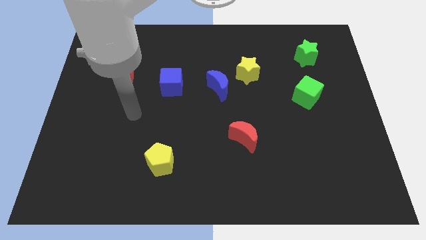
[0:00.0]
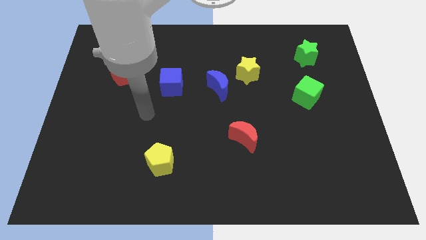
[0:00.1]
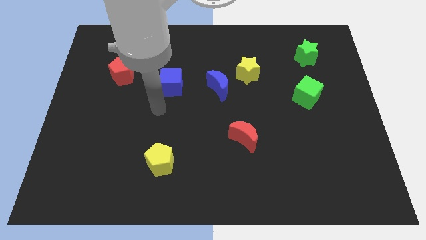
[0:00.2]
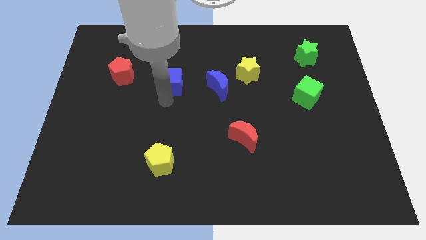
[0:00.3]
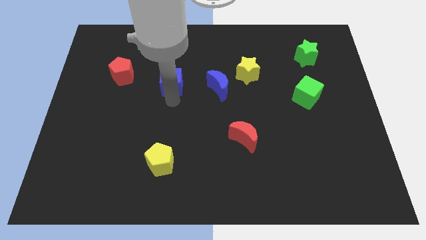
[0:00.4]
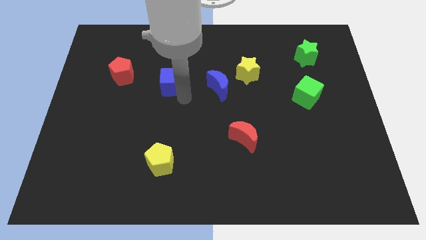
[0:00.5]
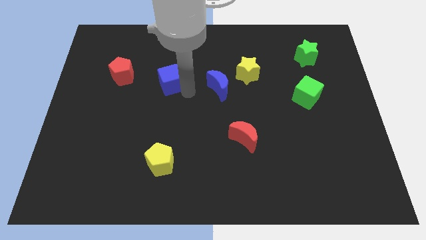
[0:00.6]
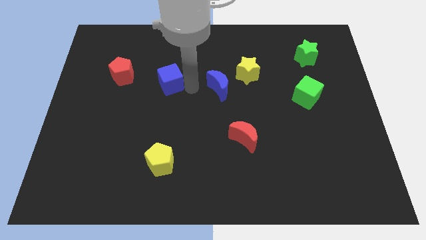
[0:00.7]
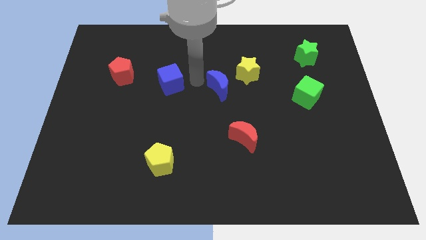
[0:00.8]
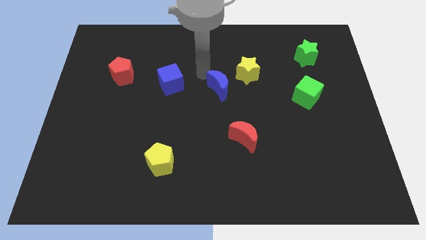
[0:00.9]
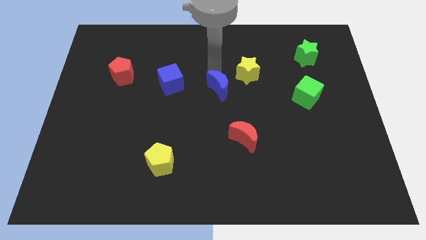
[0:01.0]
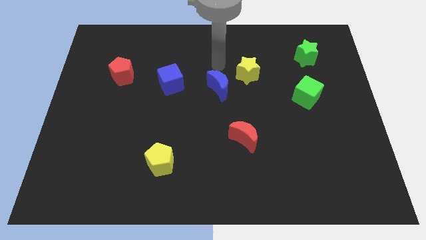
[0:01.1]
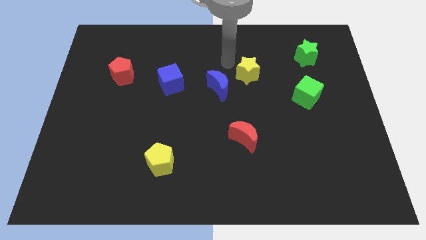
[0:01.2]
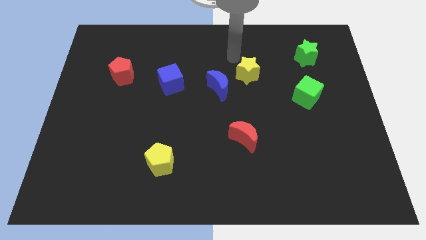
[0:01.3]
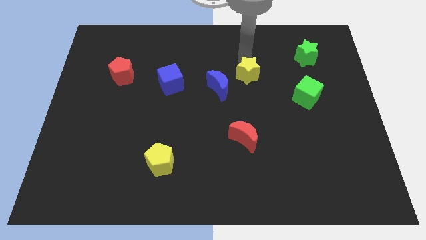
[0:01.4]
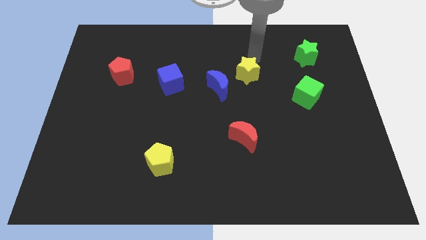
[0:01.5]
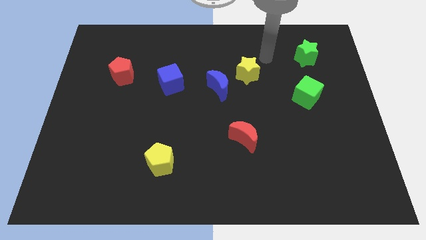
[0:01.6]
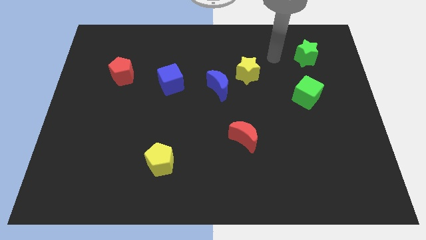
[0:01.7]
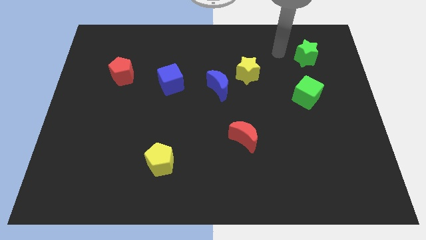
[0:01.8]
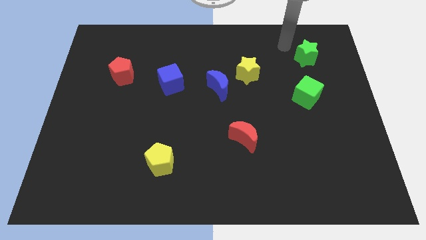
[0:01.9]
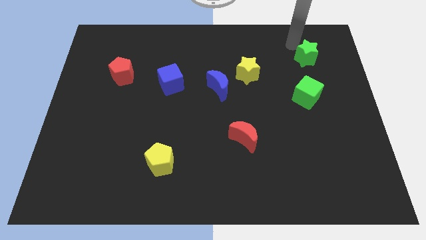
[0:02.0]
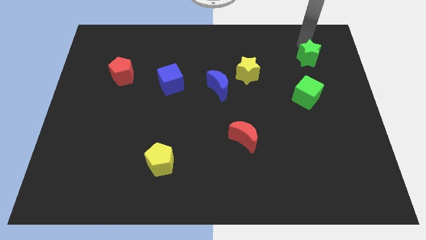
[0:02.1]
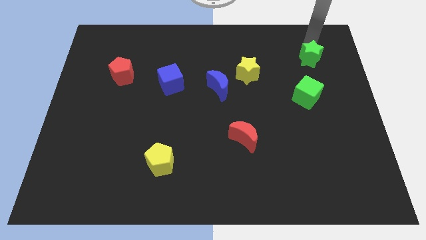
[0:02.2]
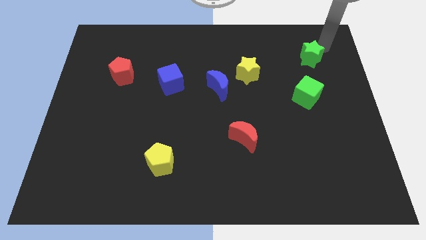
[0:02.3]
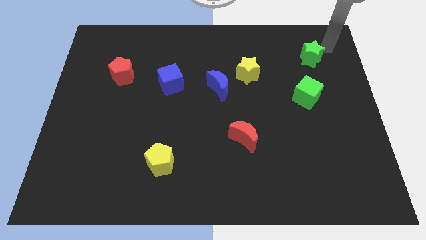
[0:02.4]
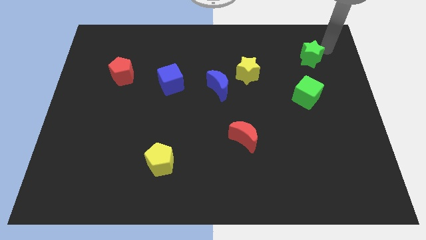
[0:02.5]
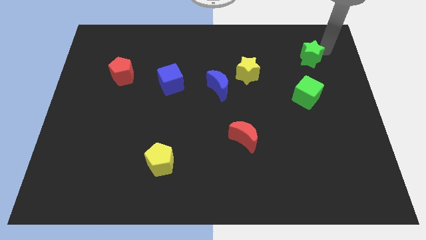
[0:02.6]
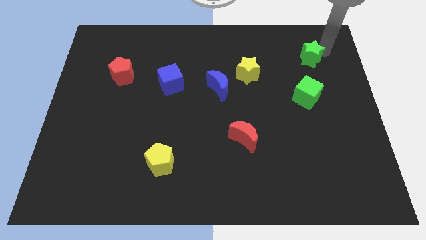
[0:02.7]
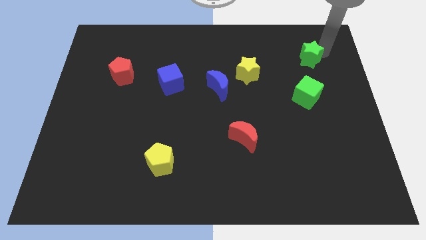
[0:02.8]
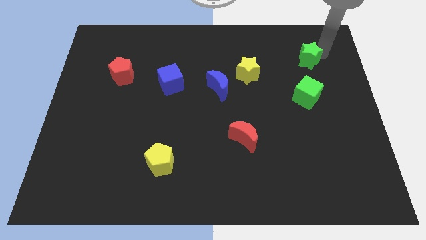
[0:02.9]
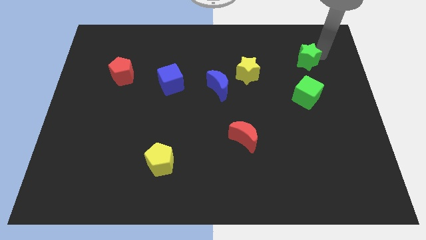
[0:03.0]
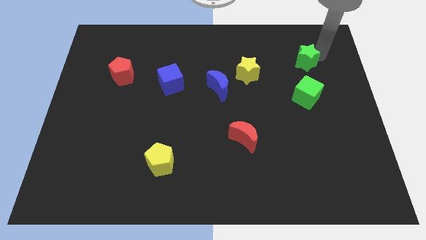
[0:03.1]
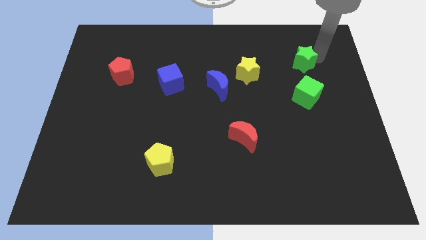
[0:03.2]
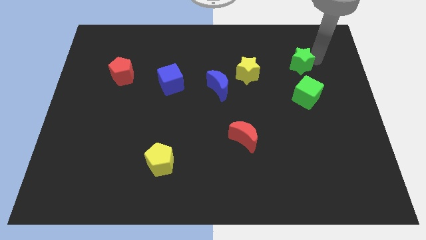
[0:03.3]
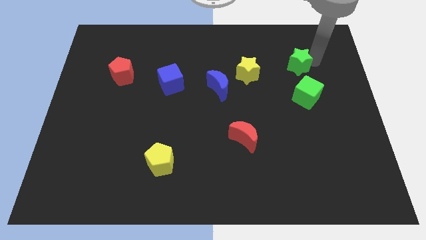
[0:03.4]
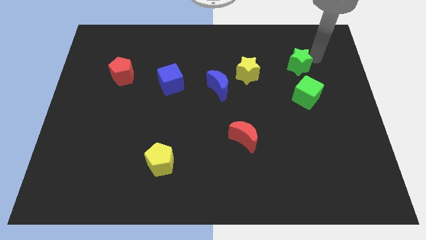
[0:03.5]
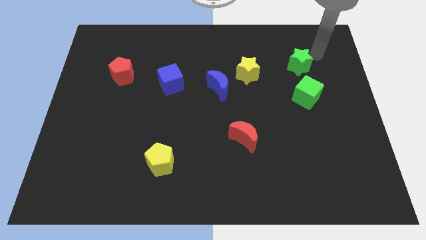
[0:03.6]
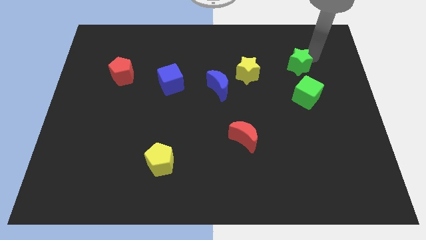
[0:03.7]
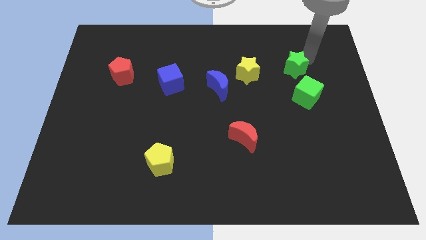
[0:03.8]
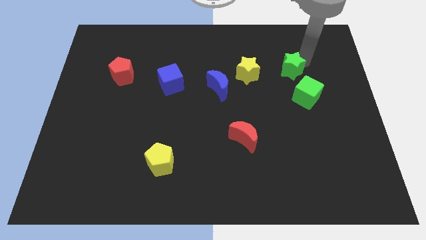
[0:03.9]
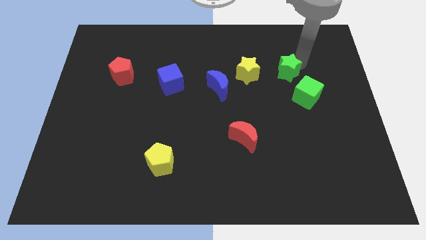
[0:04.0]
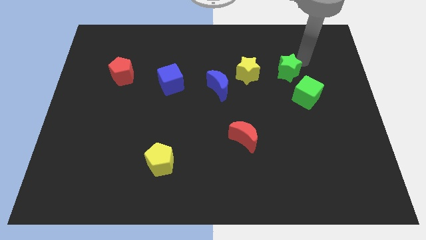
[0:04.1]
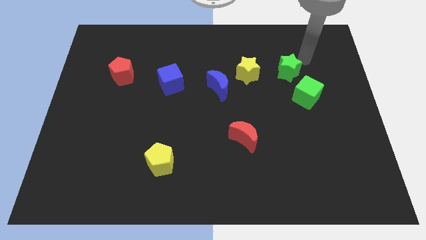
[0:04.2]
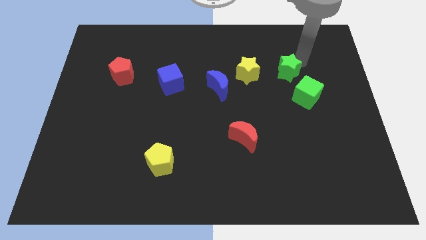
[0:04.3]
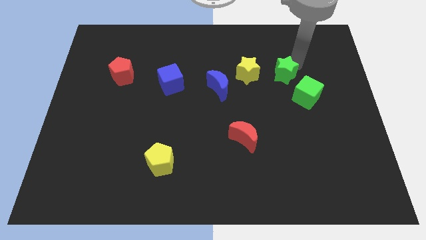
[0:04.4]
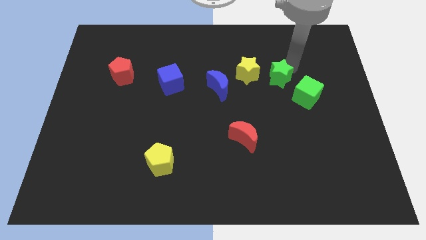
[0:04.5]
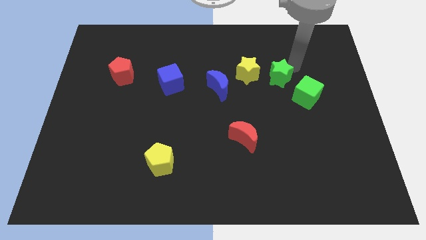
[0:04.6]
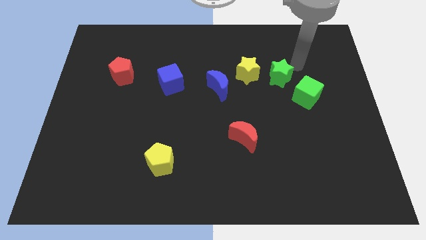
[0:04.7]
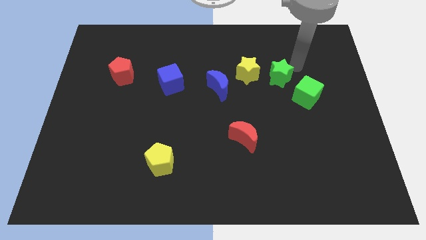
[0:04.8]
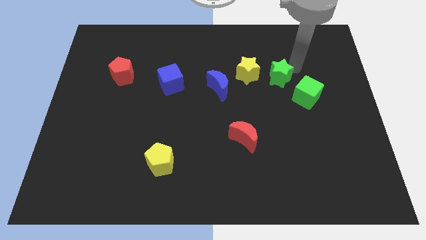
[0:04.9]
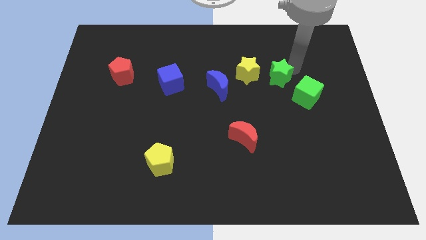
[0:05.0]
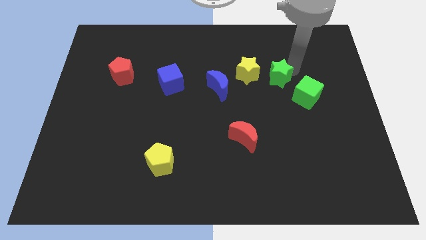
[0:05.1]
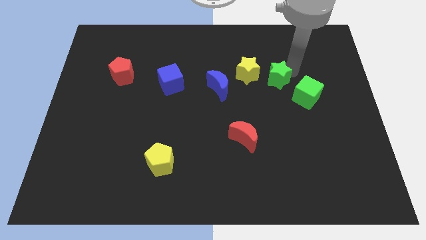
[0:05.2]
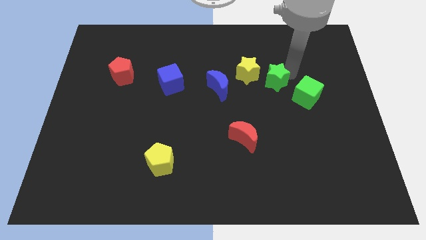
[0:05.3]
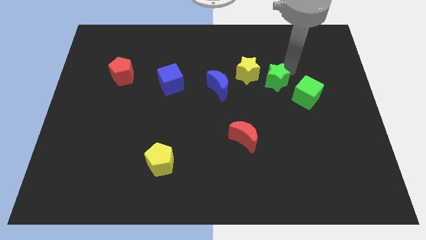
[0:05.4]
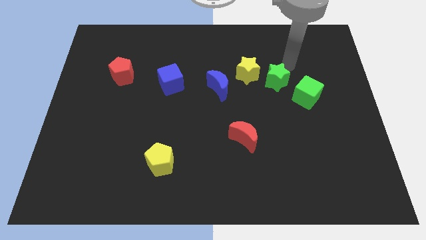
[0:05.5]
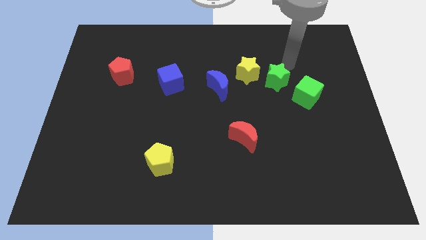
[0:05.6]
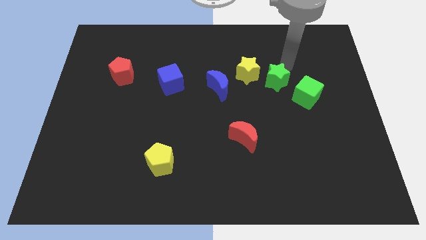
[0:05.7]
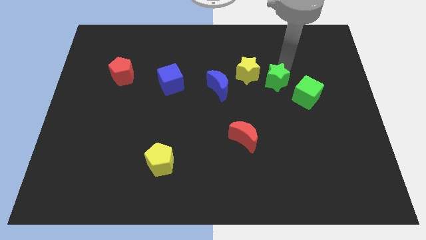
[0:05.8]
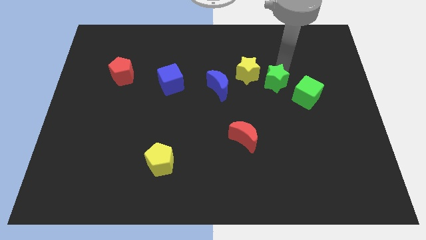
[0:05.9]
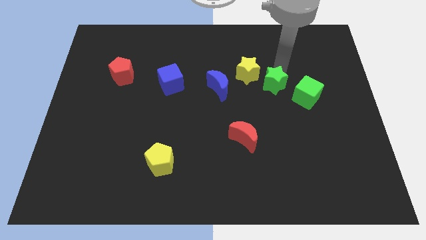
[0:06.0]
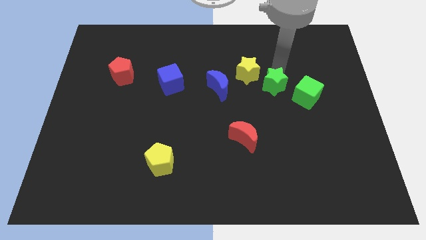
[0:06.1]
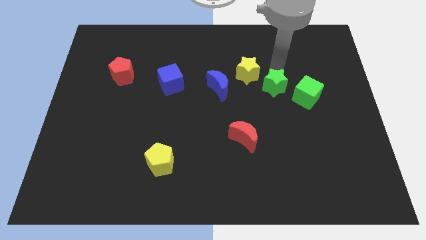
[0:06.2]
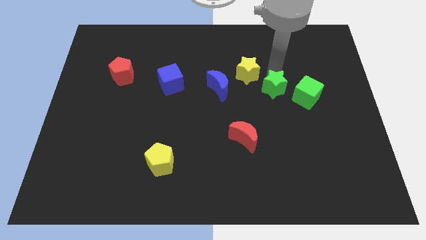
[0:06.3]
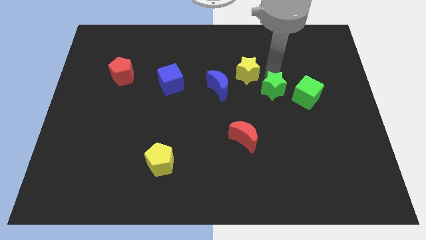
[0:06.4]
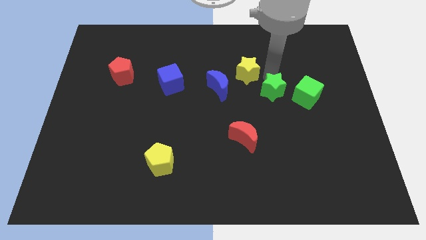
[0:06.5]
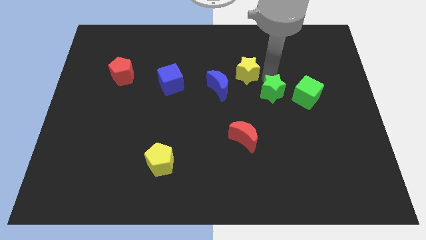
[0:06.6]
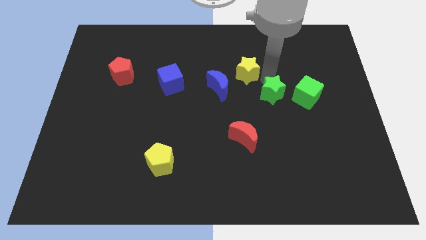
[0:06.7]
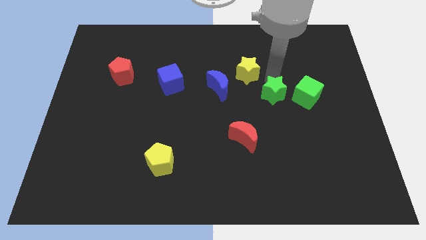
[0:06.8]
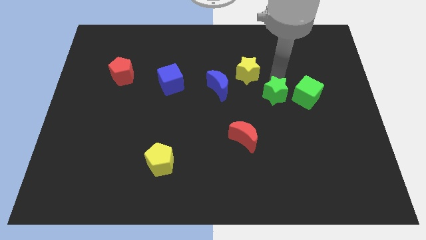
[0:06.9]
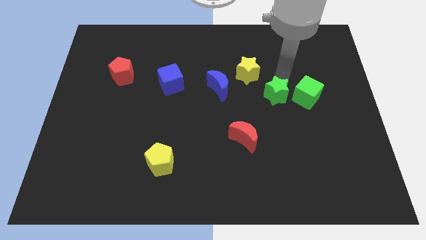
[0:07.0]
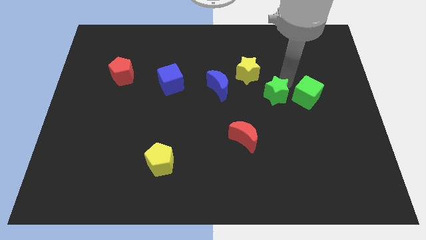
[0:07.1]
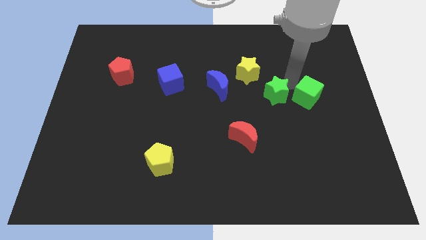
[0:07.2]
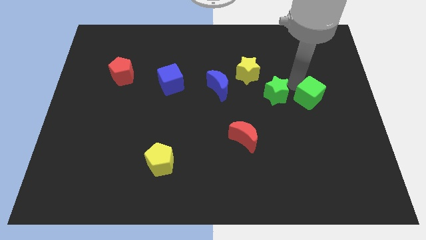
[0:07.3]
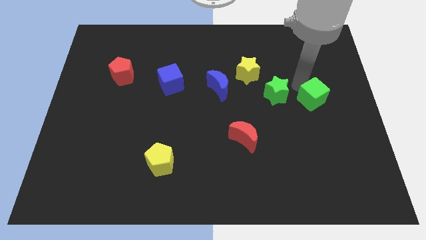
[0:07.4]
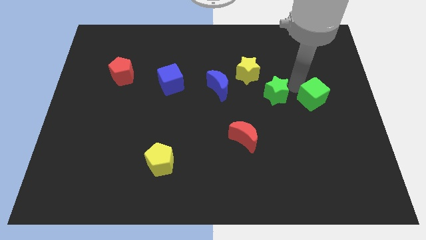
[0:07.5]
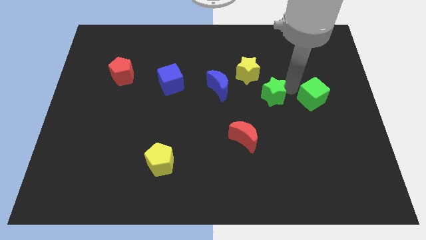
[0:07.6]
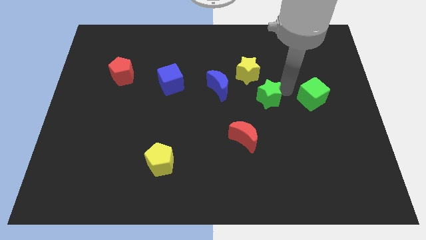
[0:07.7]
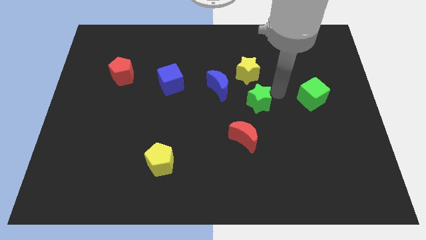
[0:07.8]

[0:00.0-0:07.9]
push the green star to the center of the board

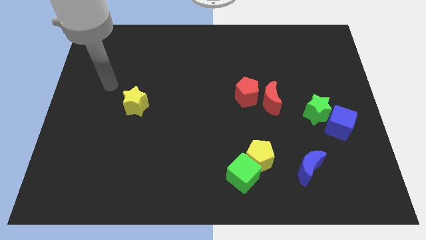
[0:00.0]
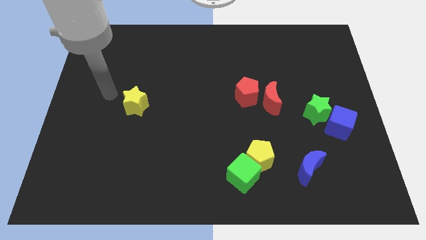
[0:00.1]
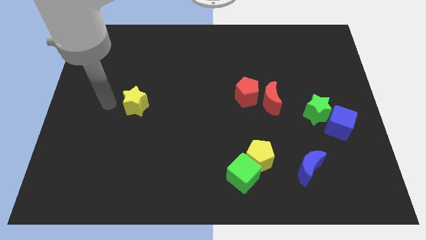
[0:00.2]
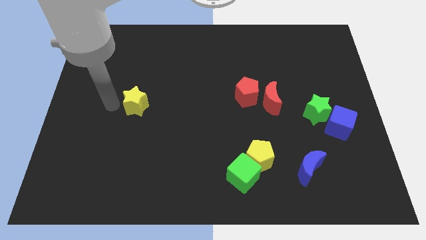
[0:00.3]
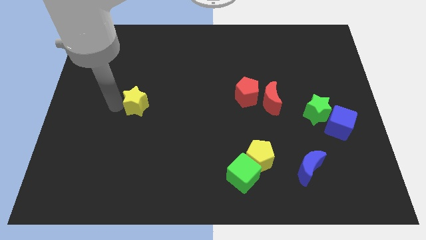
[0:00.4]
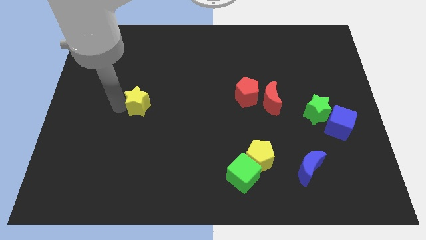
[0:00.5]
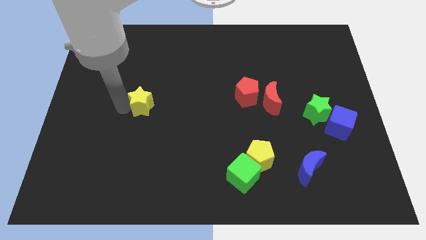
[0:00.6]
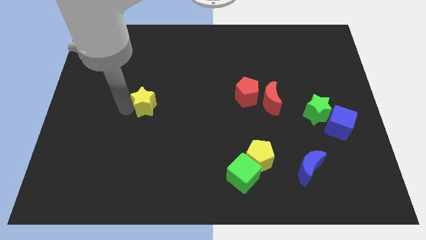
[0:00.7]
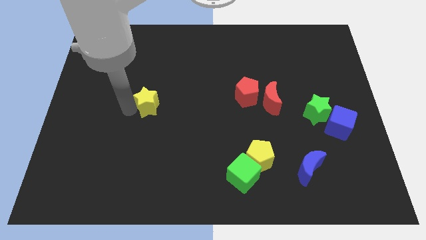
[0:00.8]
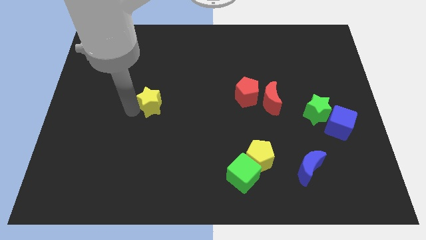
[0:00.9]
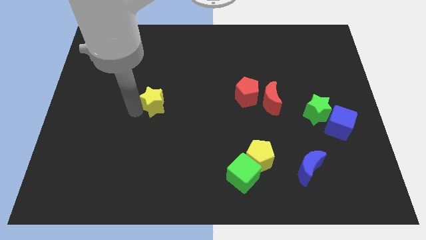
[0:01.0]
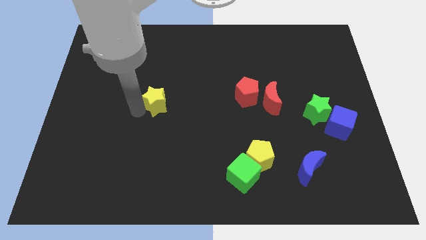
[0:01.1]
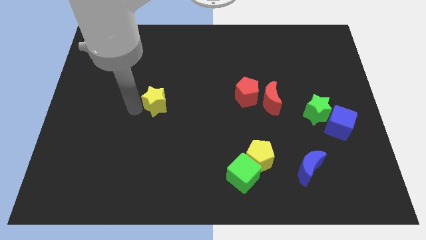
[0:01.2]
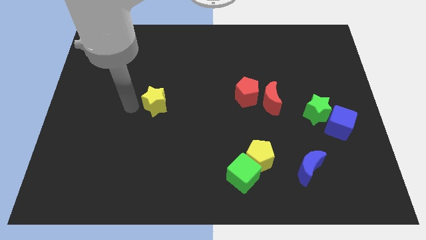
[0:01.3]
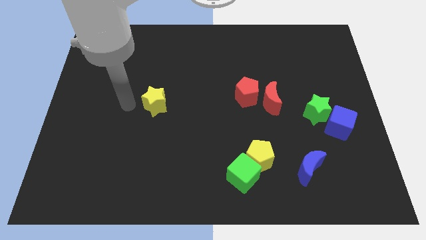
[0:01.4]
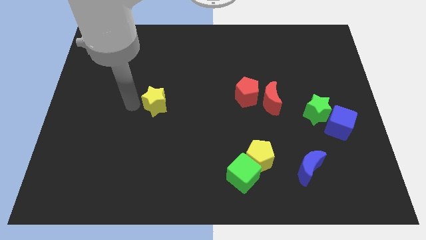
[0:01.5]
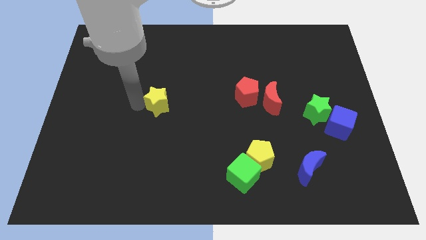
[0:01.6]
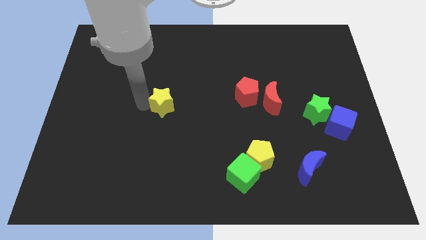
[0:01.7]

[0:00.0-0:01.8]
push the yellow star to the center
